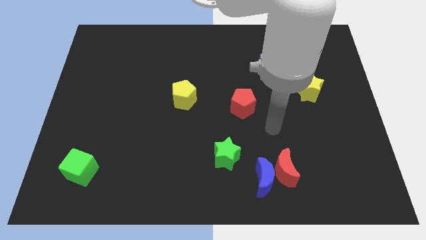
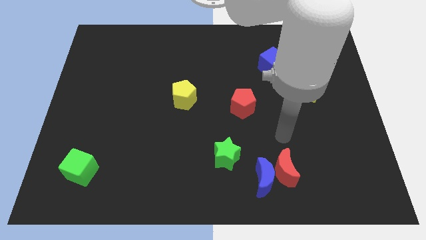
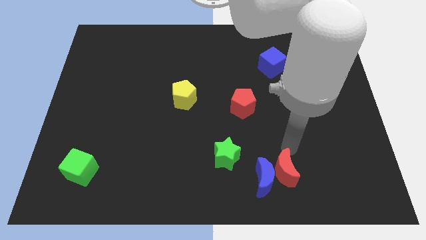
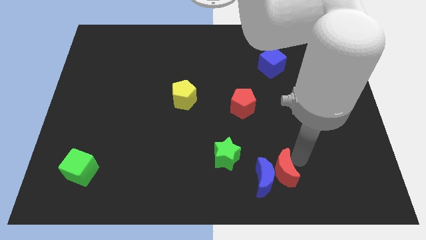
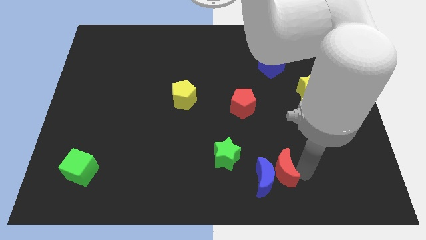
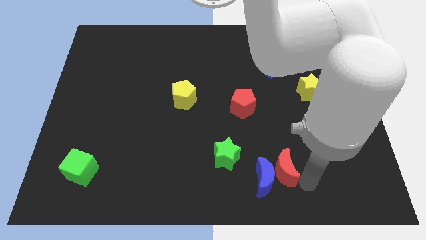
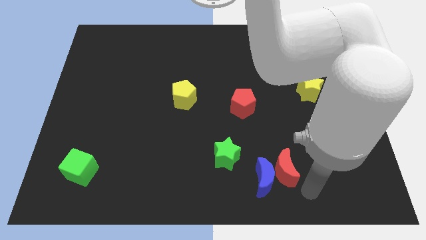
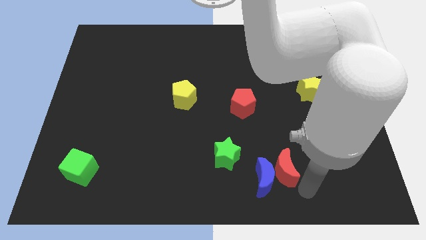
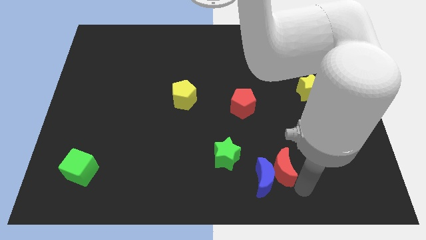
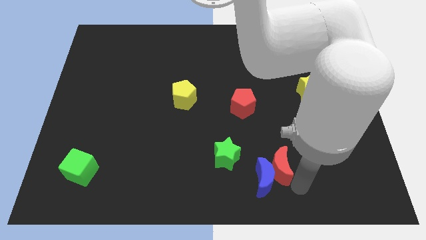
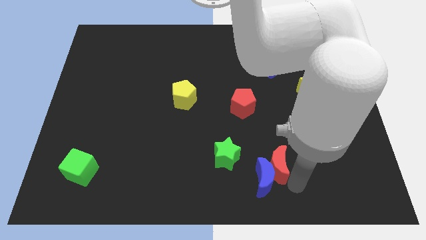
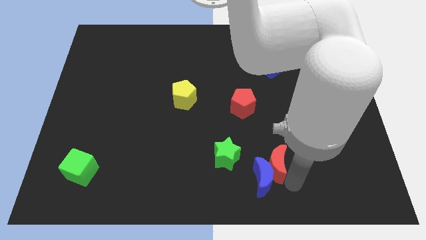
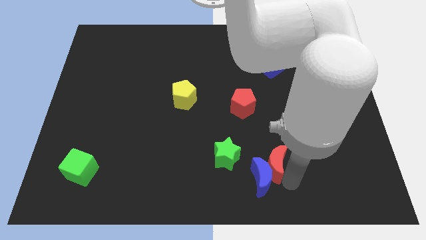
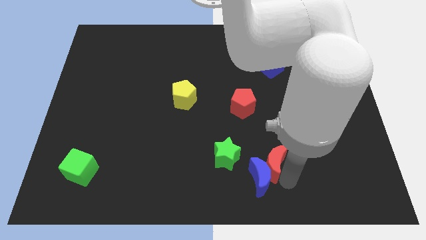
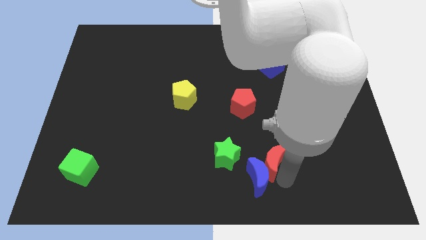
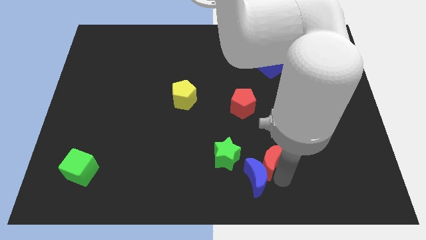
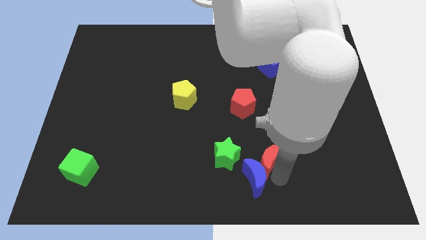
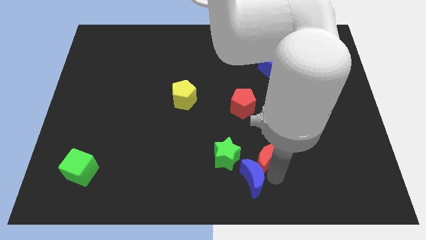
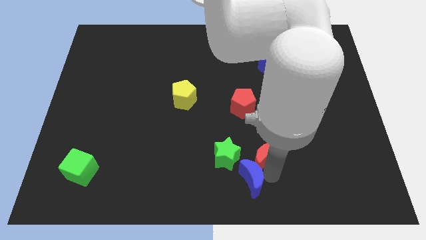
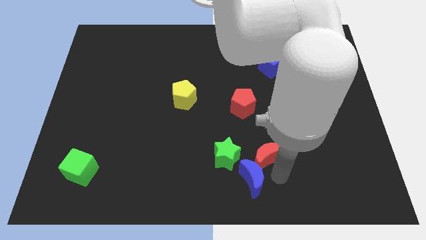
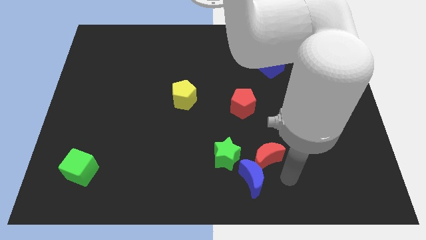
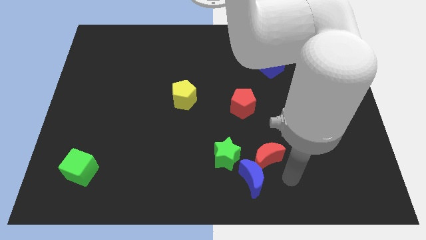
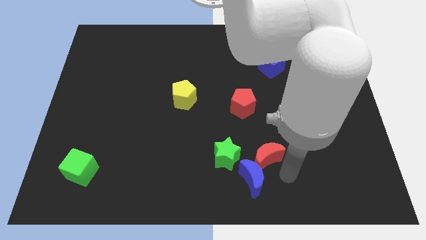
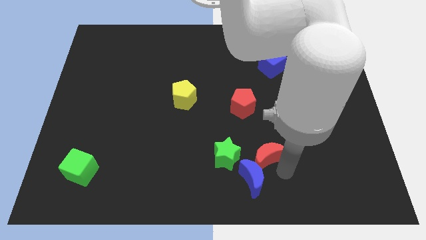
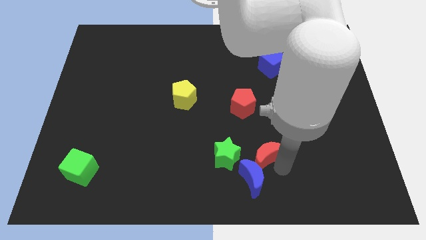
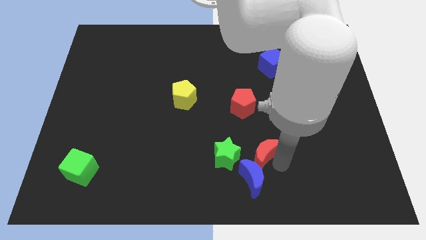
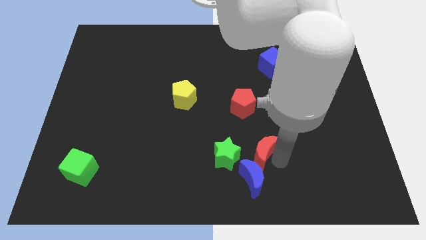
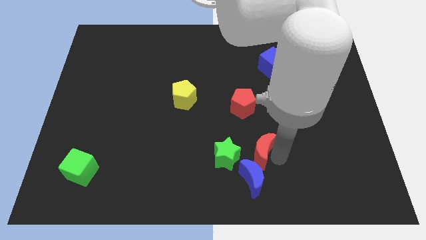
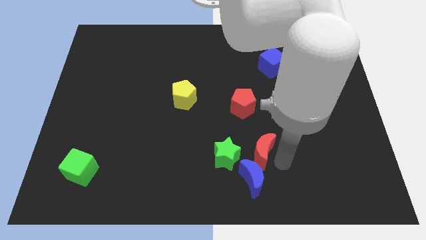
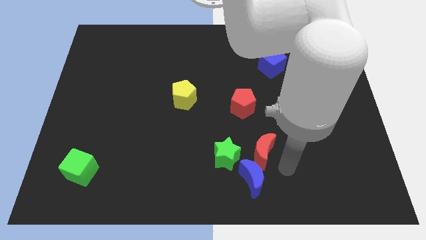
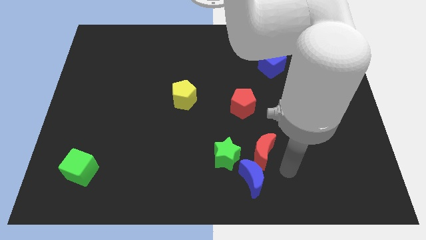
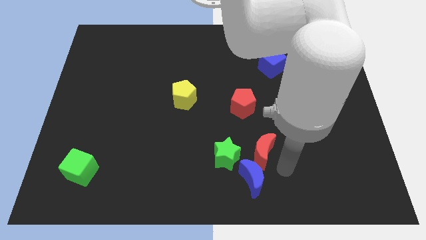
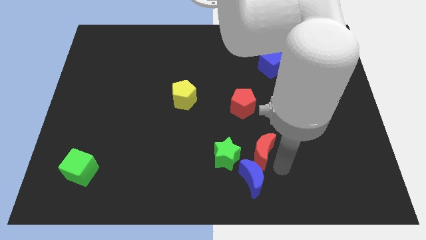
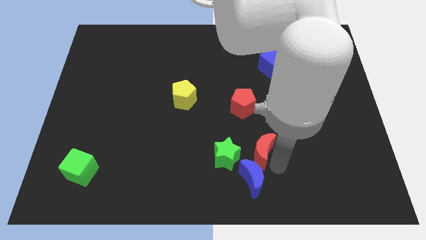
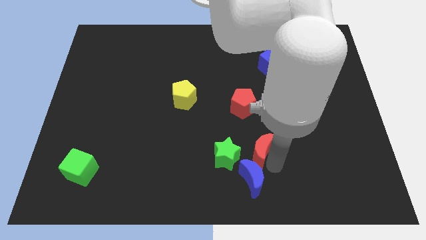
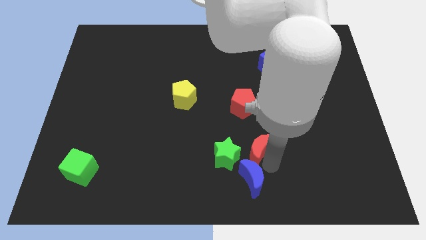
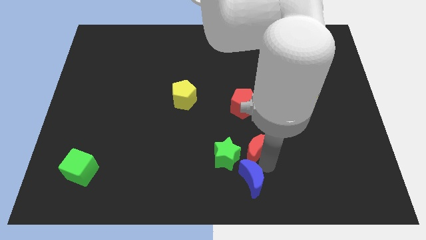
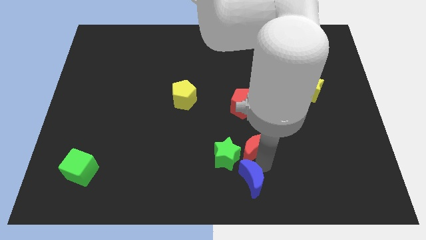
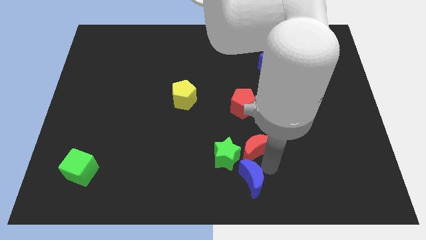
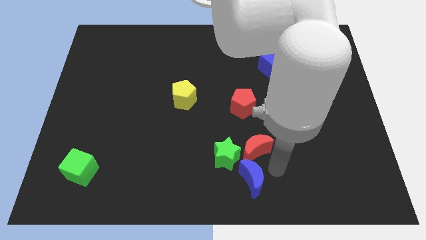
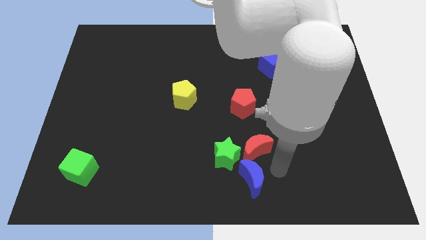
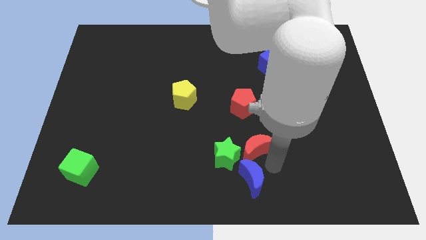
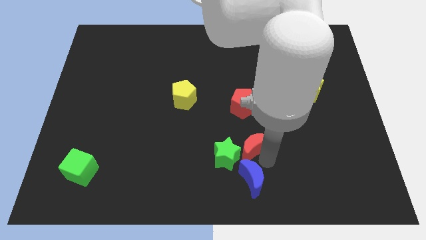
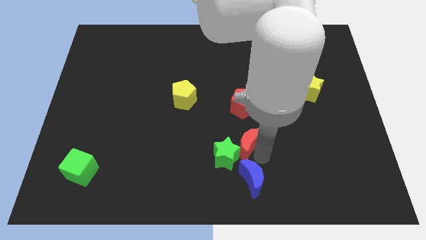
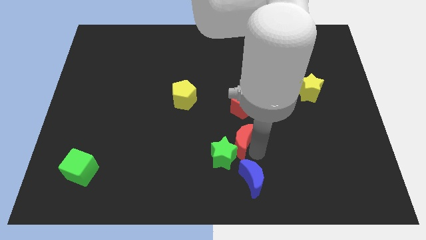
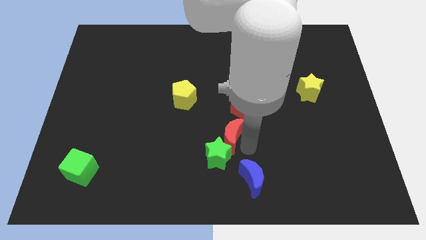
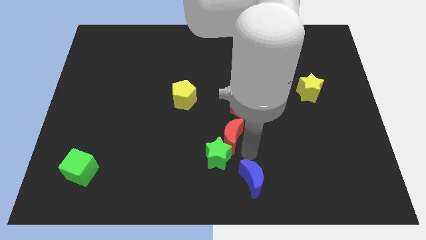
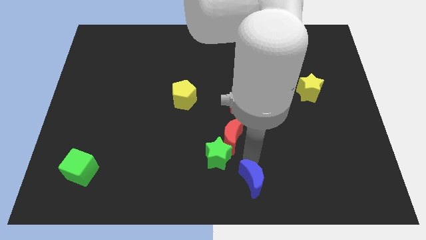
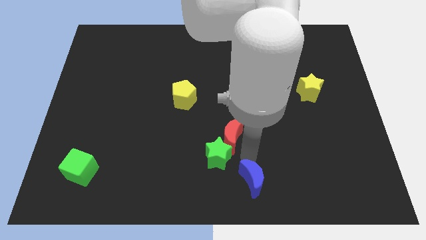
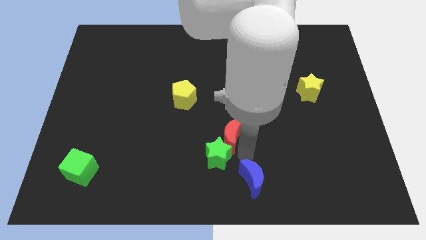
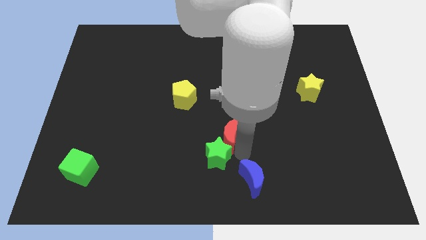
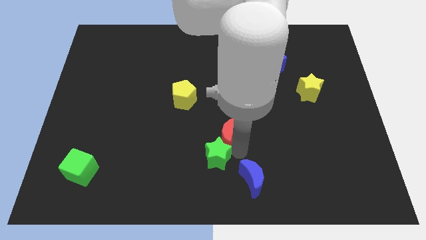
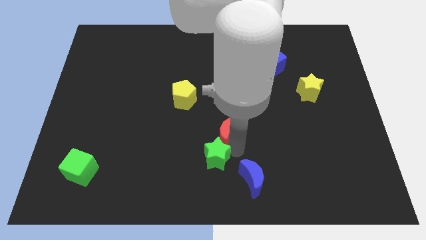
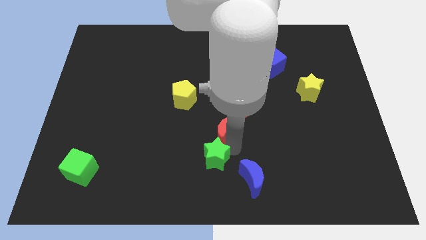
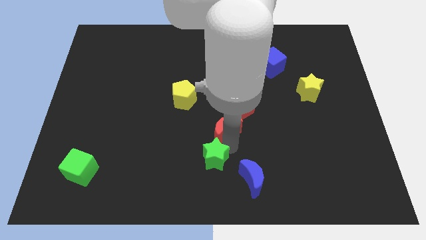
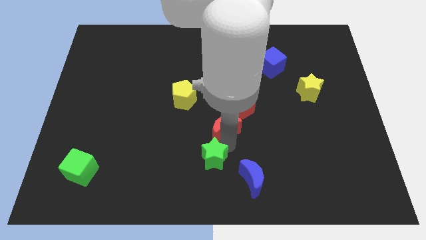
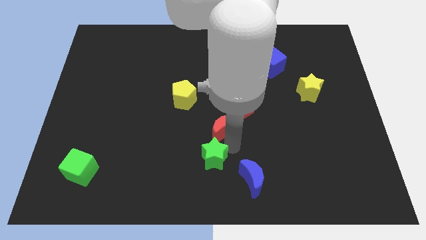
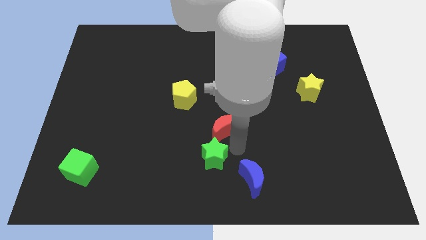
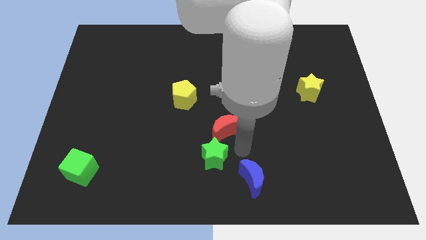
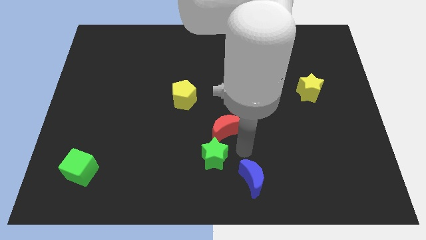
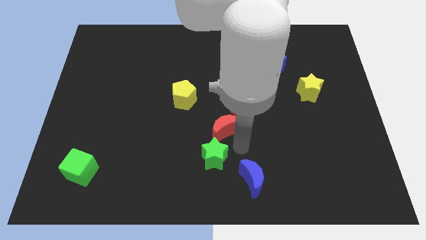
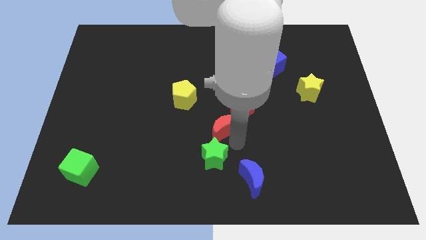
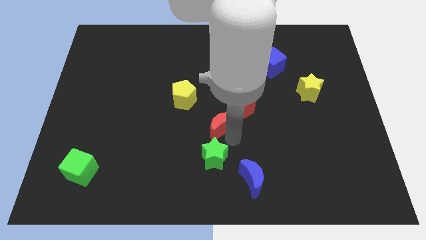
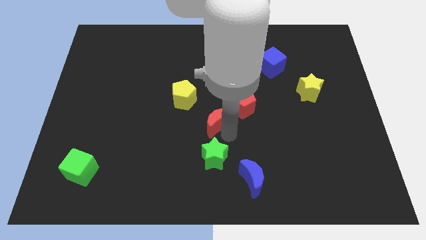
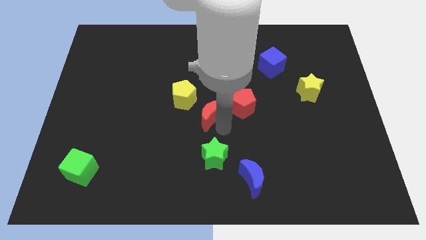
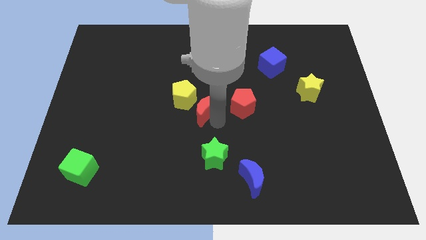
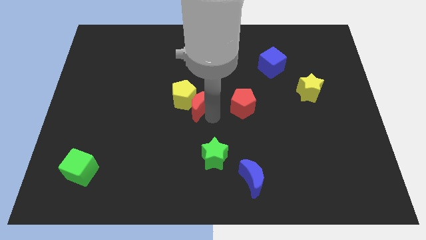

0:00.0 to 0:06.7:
move the red moon towards the yellow pentagon

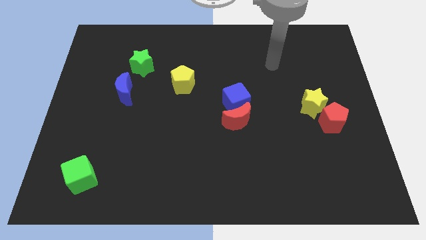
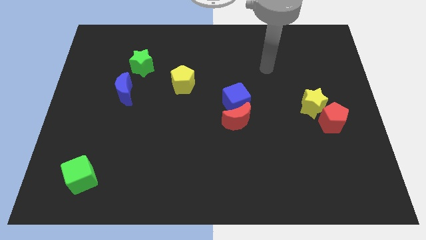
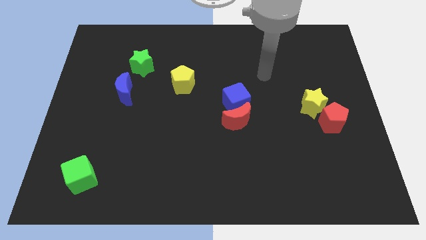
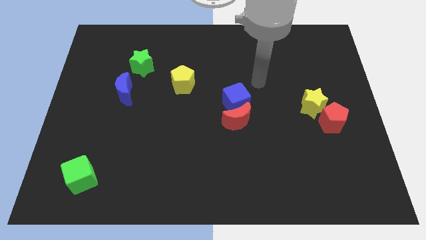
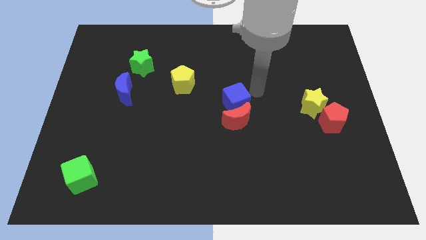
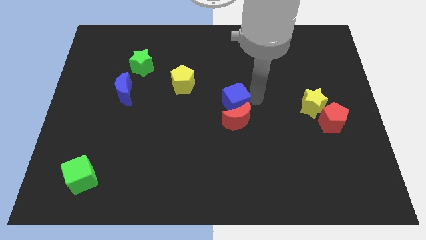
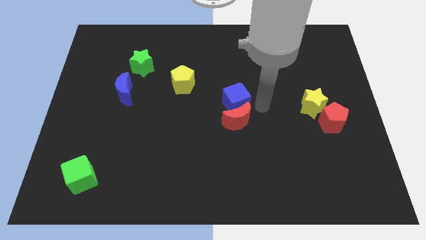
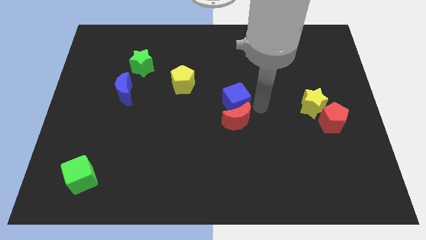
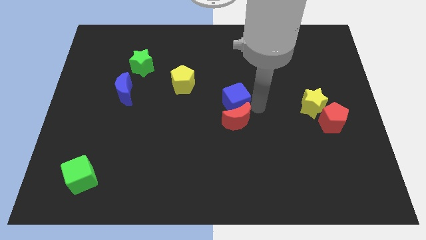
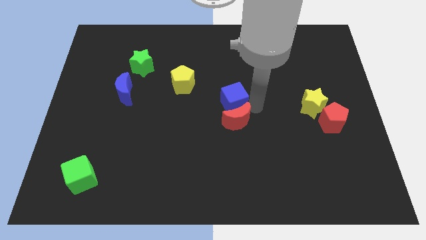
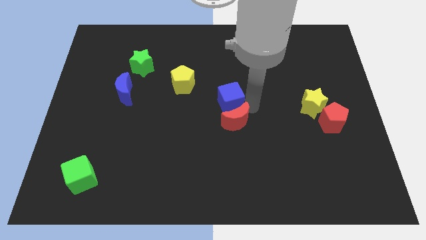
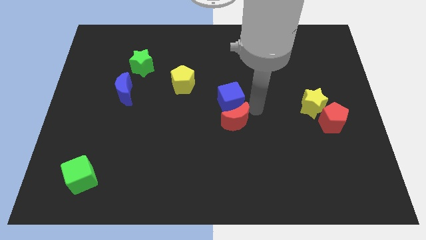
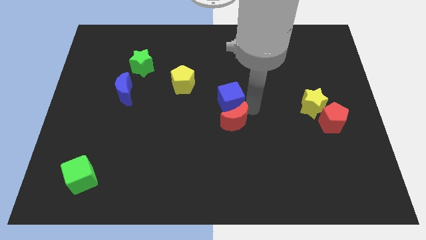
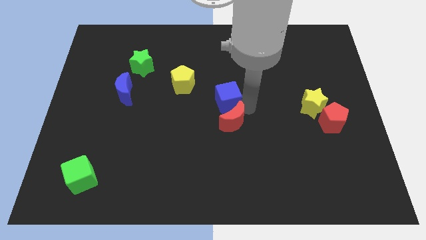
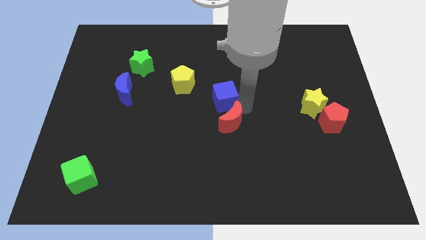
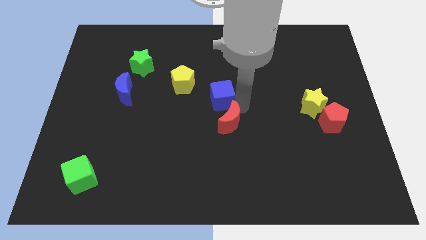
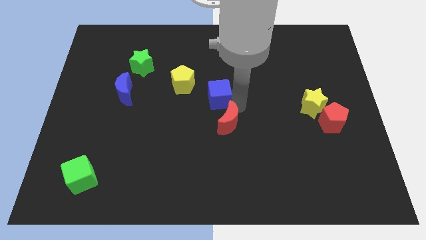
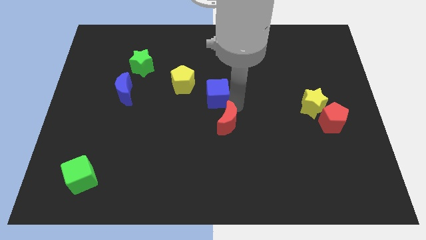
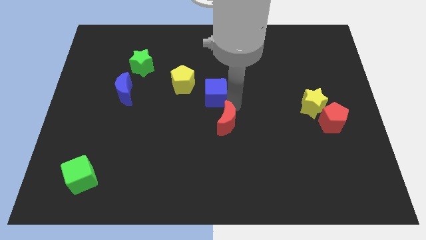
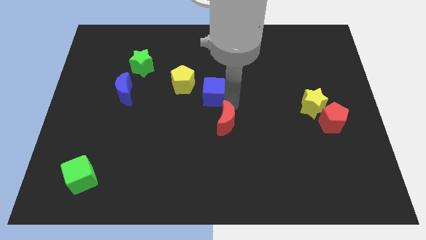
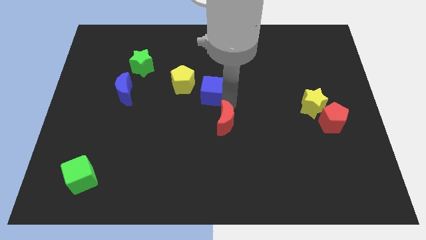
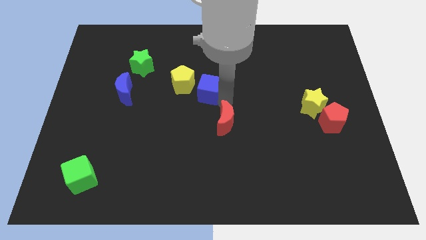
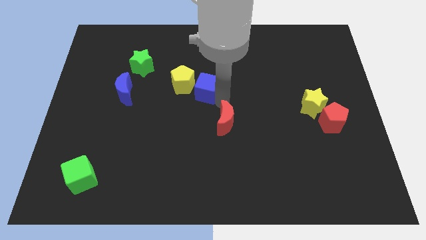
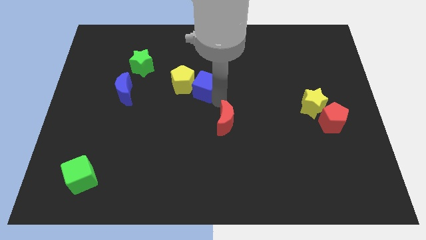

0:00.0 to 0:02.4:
put the blue cube to the yellow pentagon
